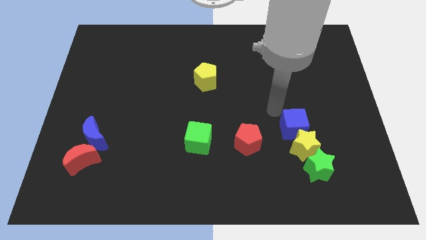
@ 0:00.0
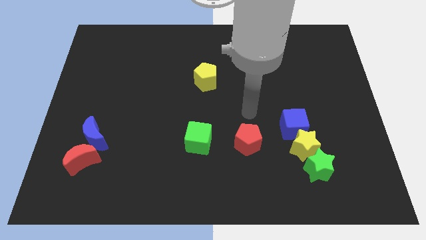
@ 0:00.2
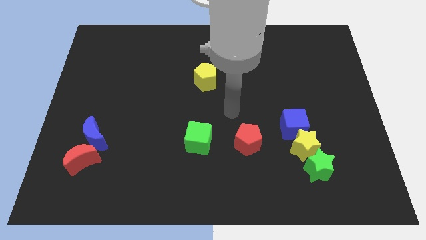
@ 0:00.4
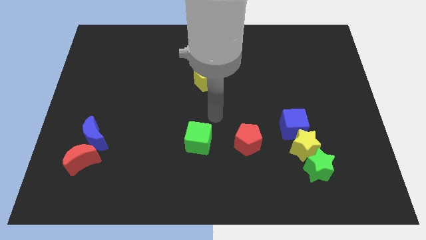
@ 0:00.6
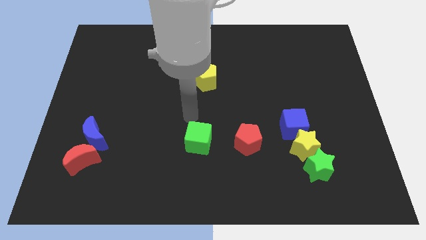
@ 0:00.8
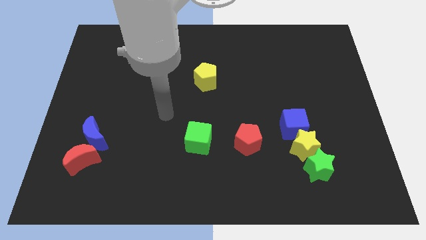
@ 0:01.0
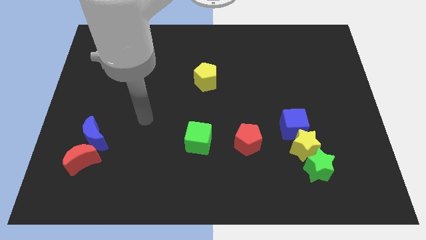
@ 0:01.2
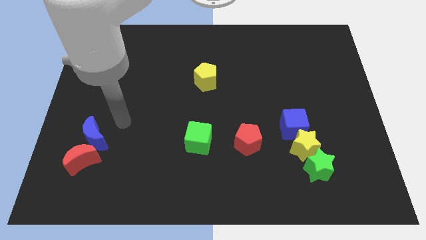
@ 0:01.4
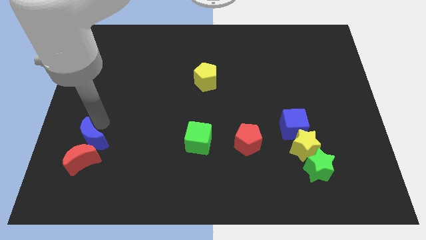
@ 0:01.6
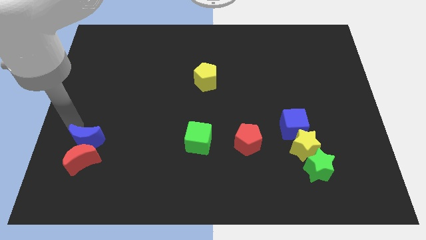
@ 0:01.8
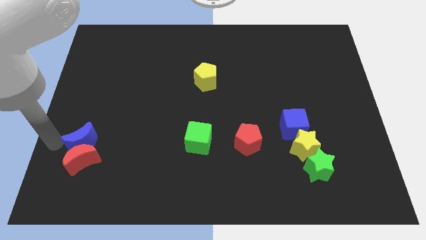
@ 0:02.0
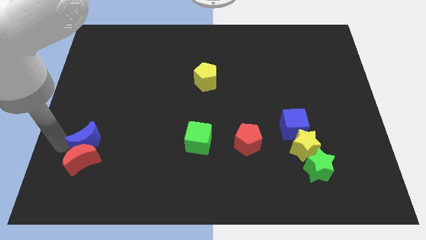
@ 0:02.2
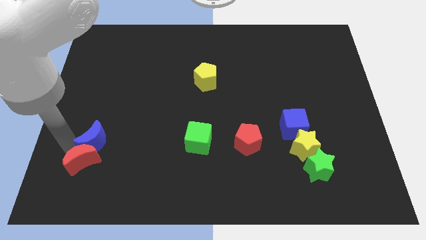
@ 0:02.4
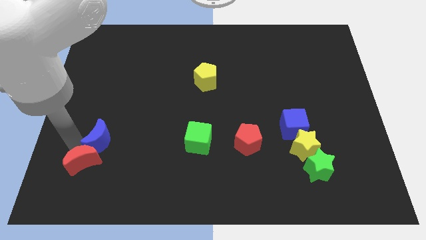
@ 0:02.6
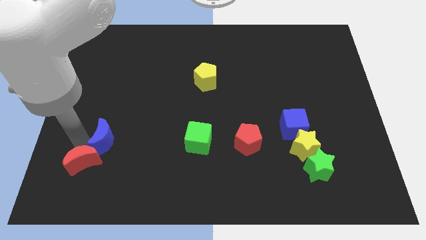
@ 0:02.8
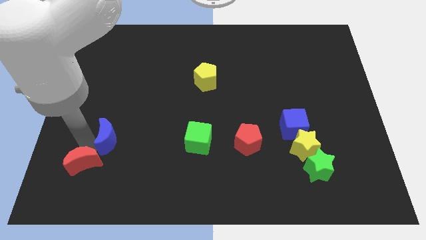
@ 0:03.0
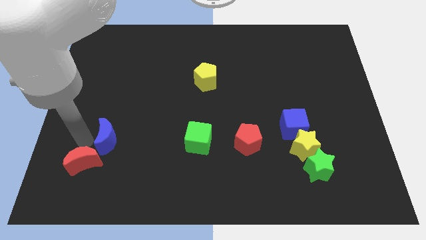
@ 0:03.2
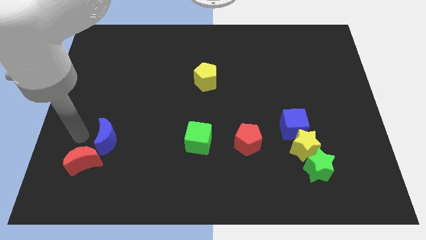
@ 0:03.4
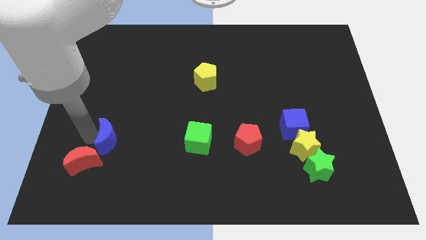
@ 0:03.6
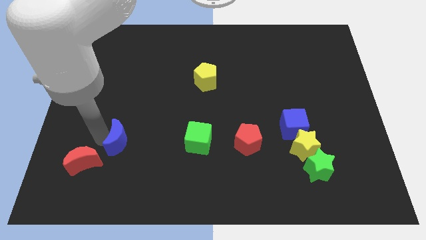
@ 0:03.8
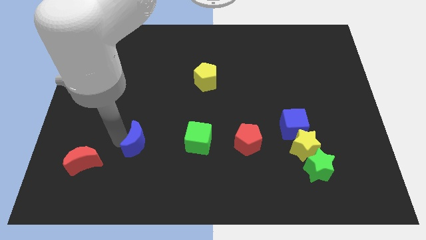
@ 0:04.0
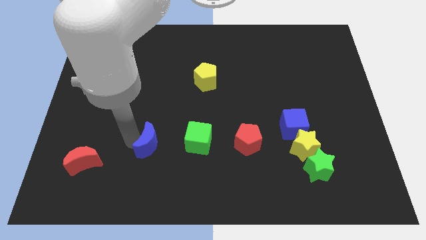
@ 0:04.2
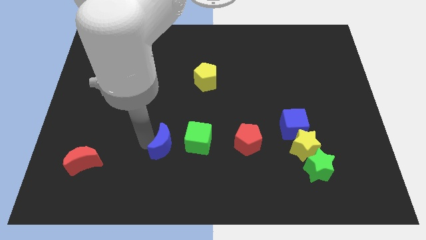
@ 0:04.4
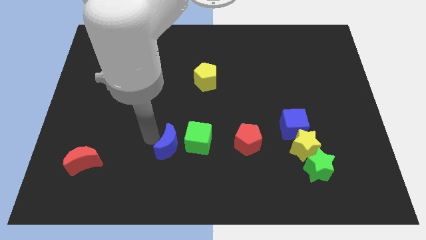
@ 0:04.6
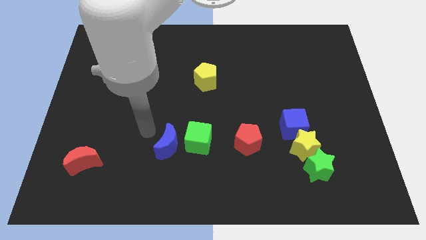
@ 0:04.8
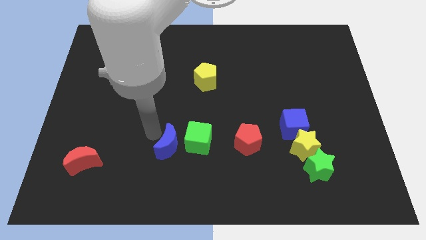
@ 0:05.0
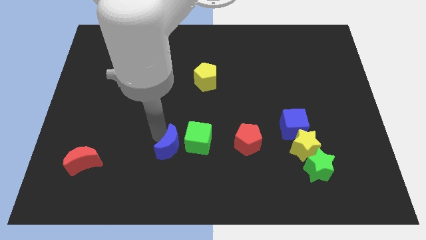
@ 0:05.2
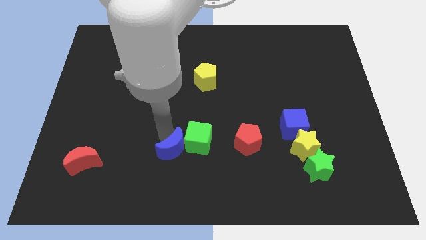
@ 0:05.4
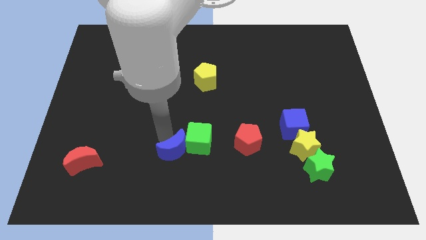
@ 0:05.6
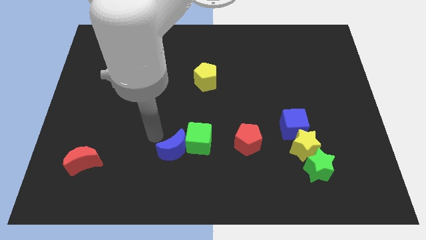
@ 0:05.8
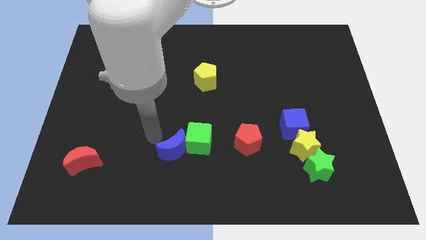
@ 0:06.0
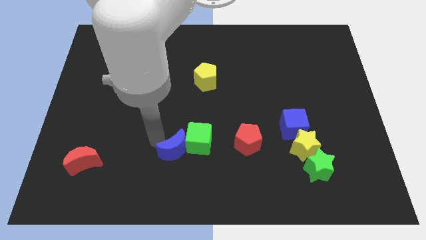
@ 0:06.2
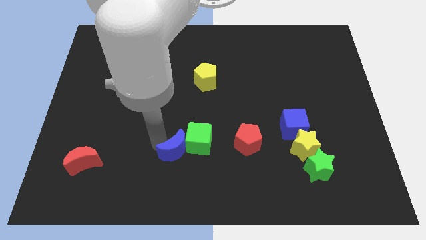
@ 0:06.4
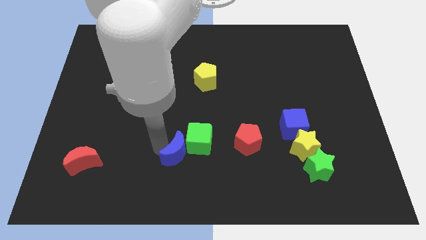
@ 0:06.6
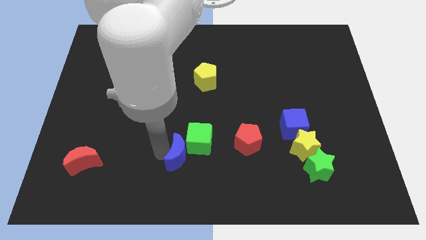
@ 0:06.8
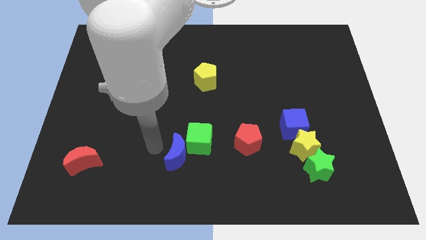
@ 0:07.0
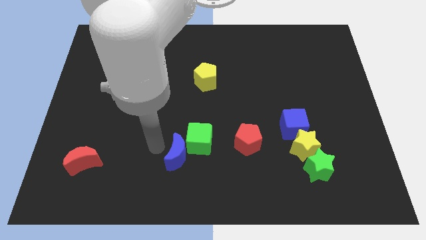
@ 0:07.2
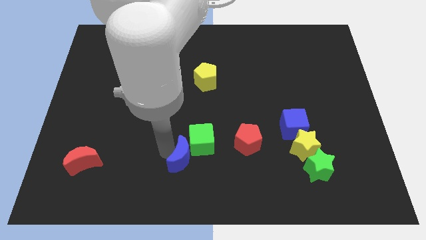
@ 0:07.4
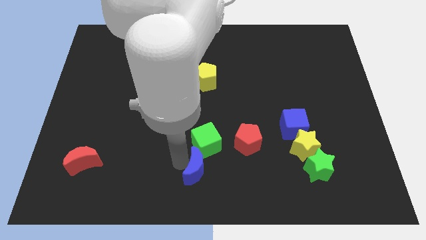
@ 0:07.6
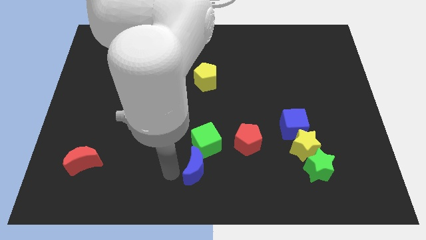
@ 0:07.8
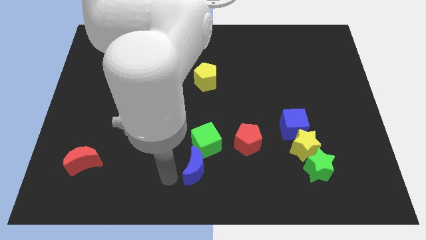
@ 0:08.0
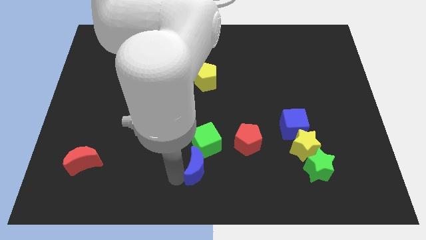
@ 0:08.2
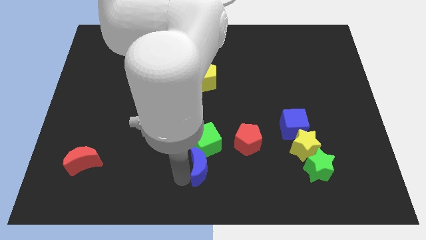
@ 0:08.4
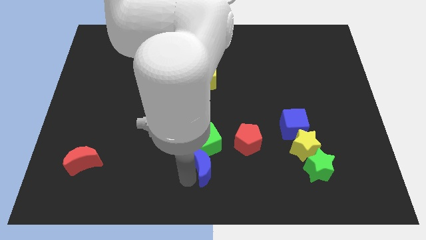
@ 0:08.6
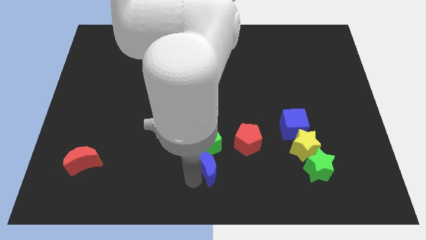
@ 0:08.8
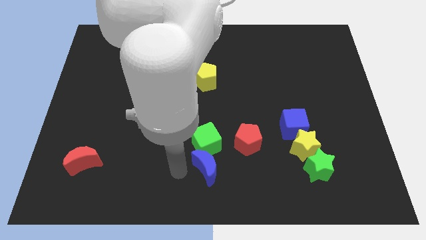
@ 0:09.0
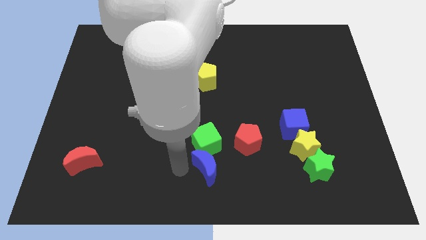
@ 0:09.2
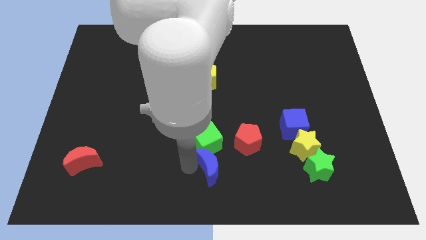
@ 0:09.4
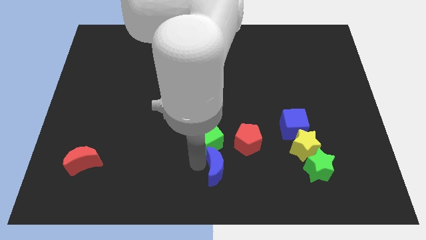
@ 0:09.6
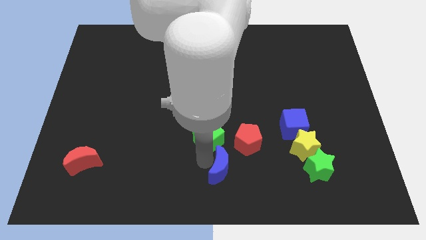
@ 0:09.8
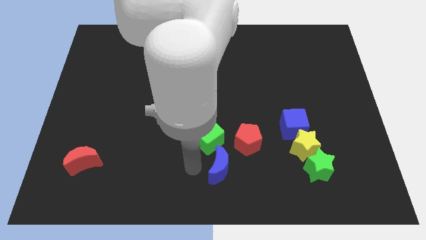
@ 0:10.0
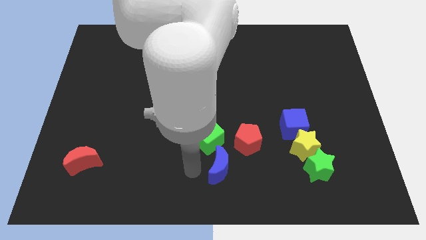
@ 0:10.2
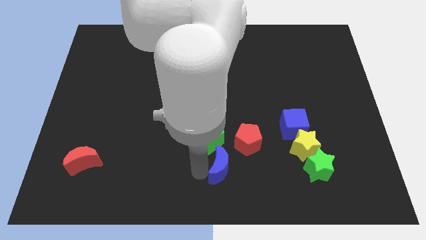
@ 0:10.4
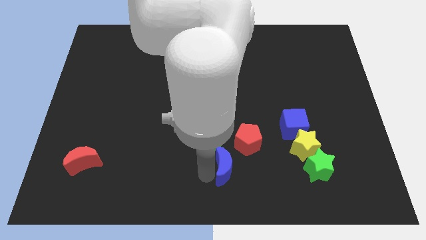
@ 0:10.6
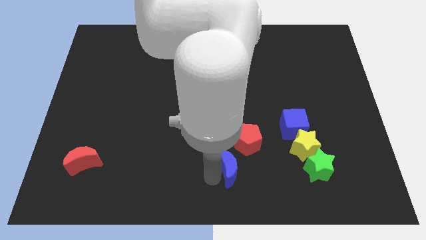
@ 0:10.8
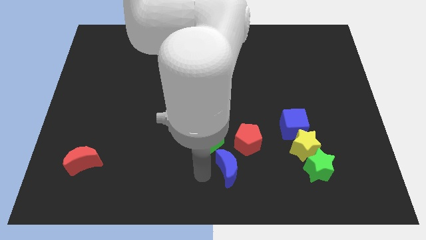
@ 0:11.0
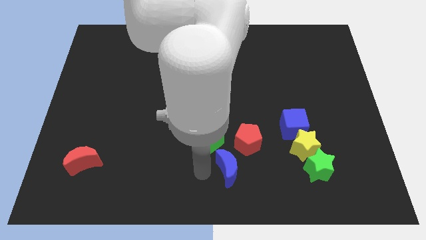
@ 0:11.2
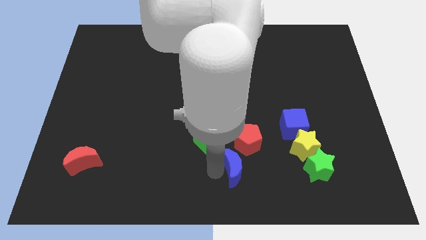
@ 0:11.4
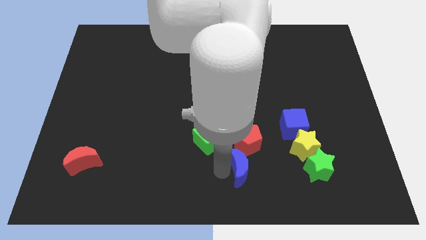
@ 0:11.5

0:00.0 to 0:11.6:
slide the blue moon just left of the green star
